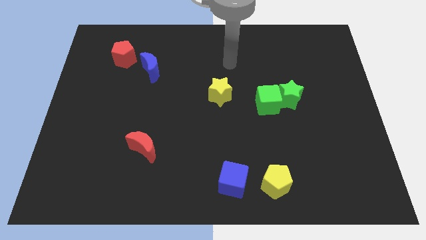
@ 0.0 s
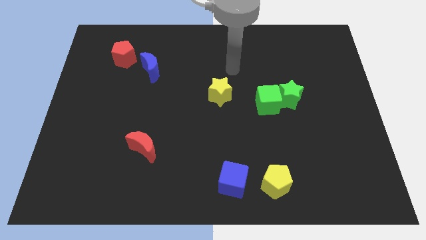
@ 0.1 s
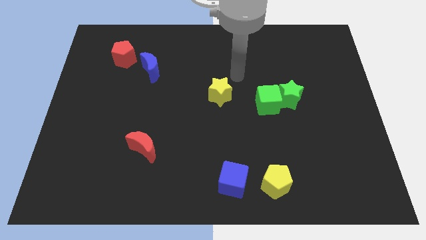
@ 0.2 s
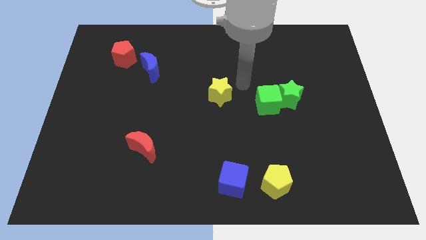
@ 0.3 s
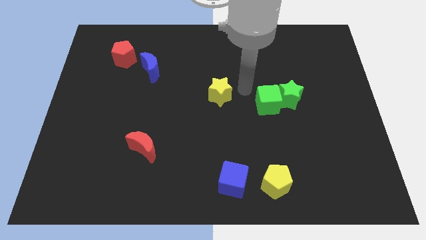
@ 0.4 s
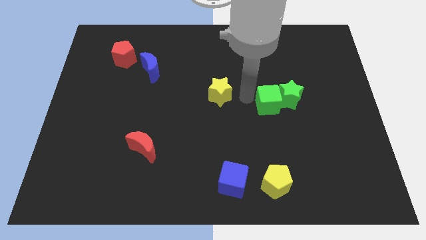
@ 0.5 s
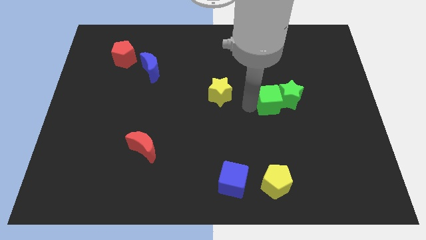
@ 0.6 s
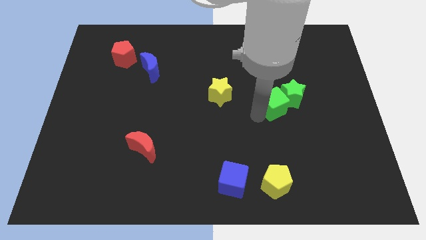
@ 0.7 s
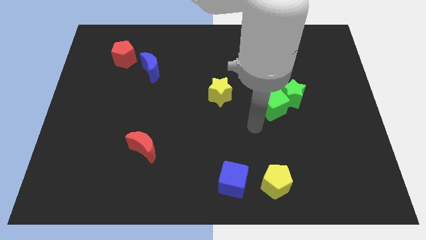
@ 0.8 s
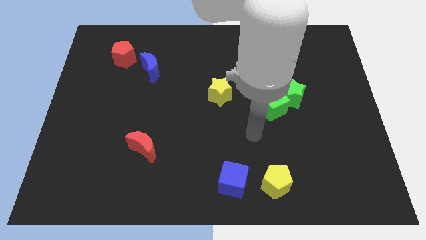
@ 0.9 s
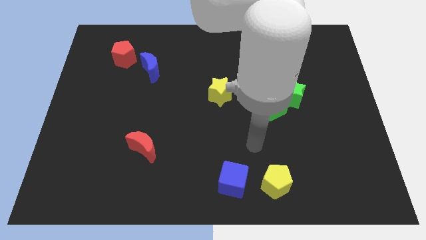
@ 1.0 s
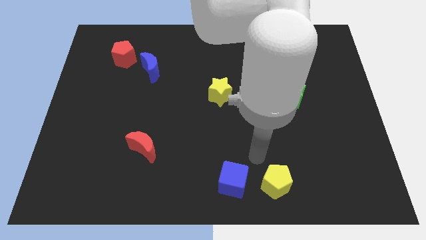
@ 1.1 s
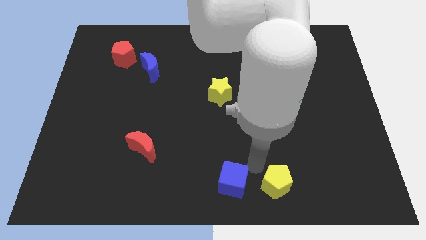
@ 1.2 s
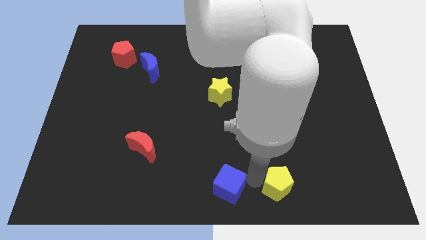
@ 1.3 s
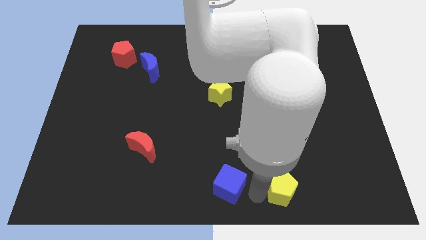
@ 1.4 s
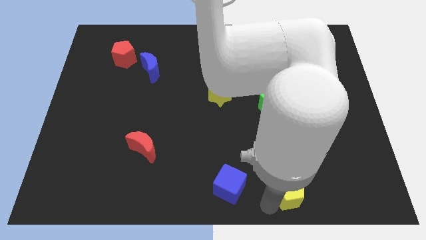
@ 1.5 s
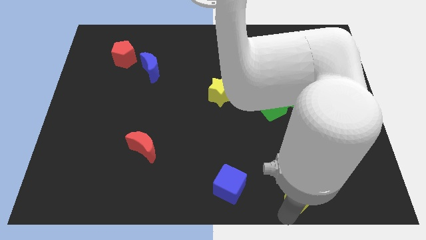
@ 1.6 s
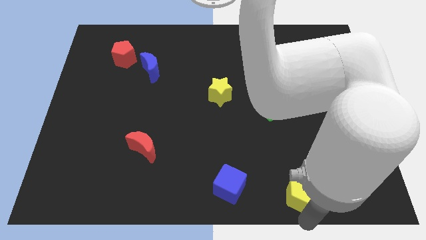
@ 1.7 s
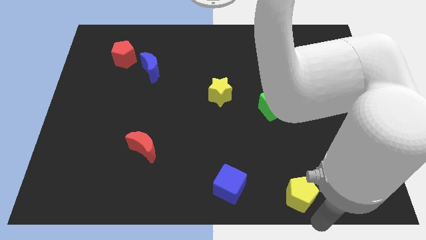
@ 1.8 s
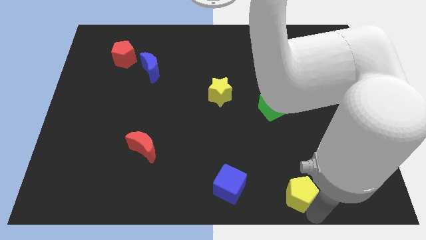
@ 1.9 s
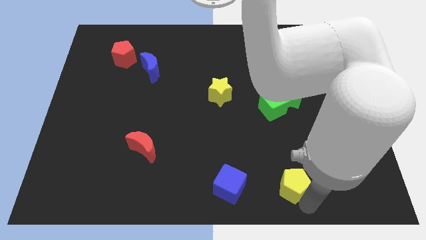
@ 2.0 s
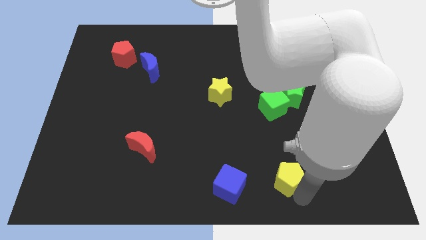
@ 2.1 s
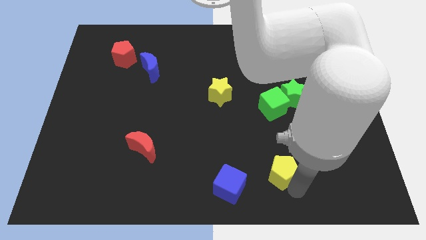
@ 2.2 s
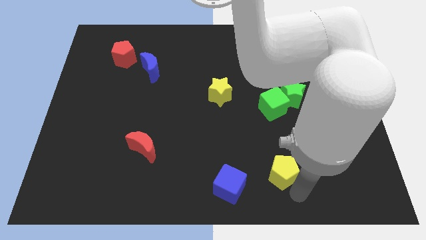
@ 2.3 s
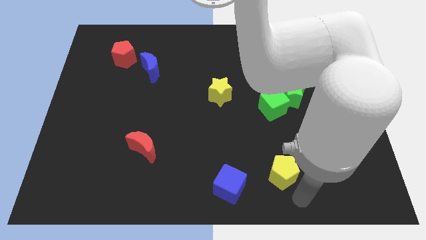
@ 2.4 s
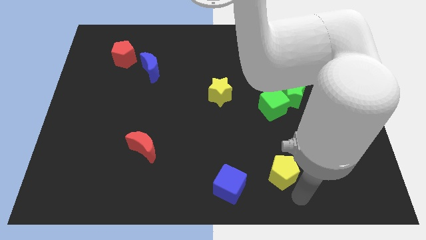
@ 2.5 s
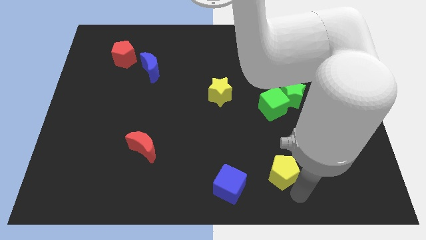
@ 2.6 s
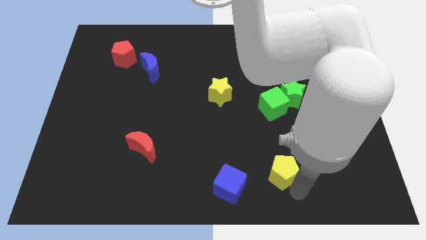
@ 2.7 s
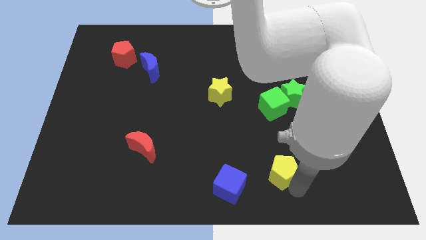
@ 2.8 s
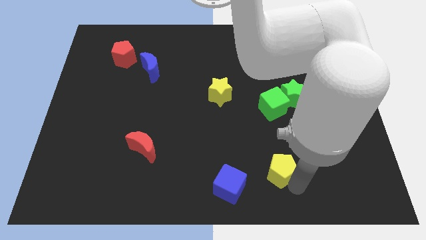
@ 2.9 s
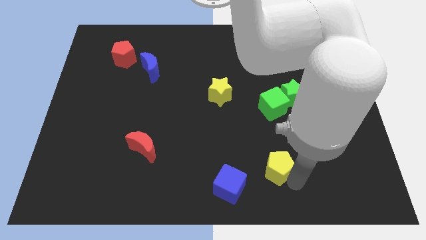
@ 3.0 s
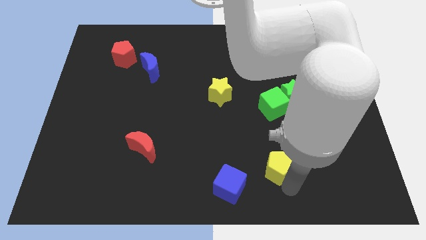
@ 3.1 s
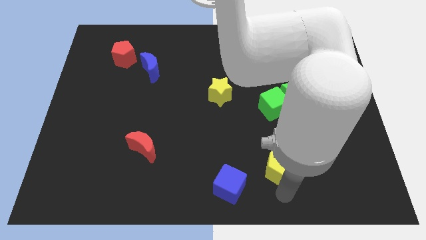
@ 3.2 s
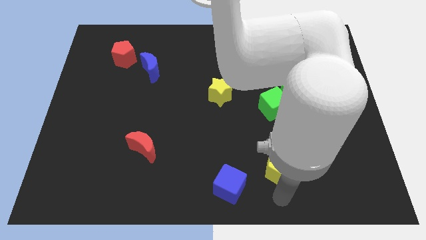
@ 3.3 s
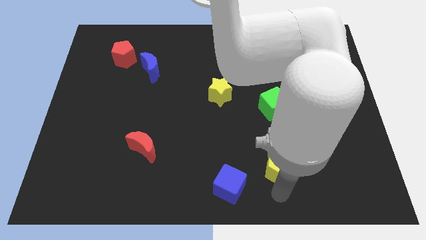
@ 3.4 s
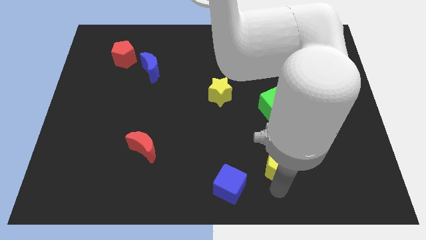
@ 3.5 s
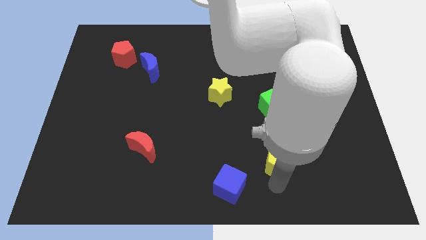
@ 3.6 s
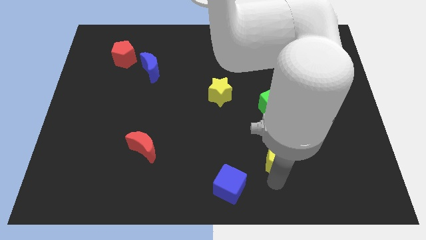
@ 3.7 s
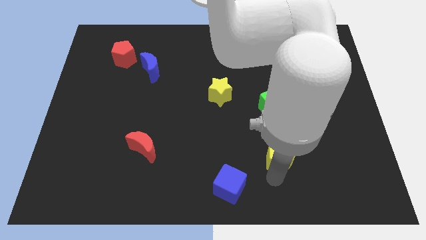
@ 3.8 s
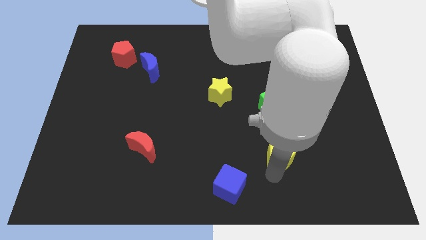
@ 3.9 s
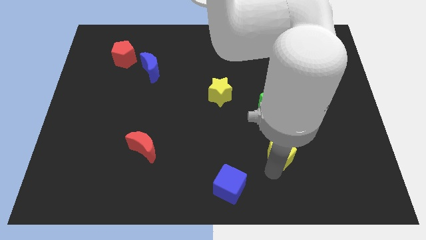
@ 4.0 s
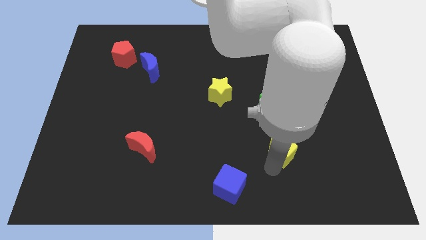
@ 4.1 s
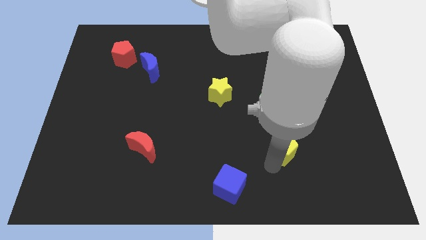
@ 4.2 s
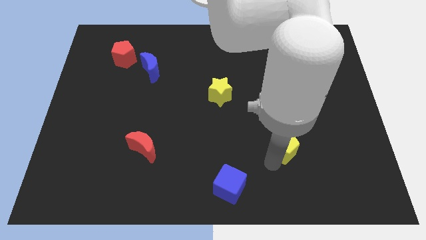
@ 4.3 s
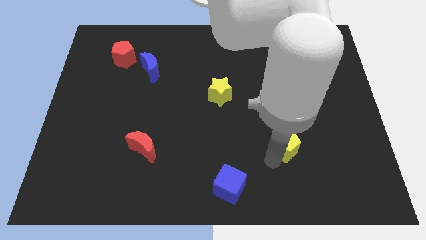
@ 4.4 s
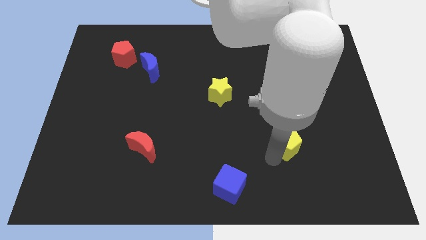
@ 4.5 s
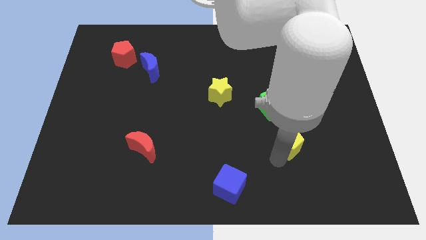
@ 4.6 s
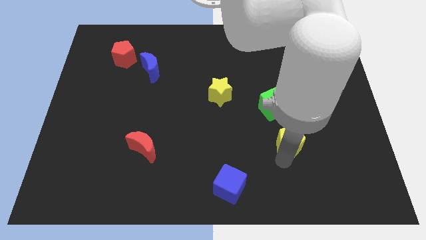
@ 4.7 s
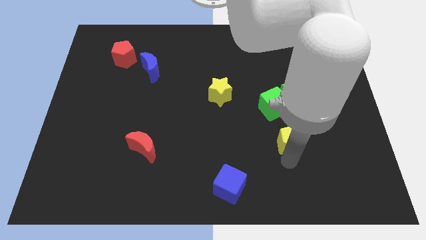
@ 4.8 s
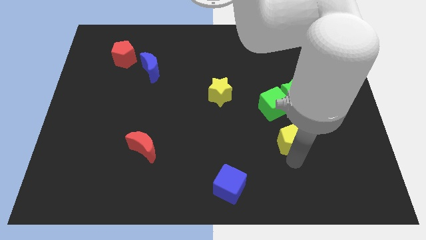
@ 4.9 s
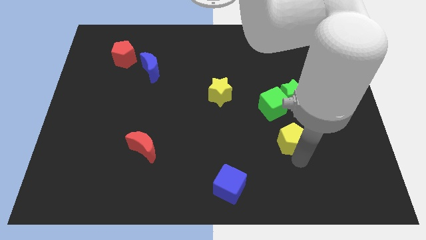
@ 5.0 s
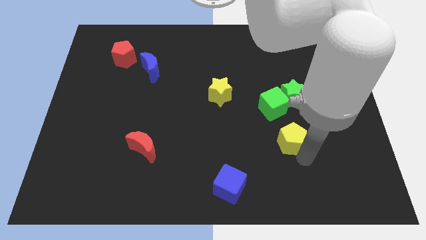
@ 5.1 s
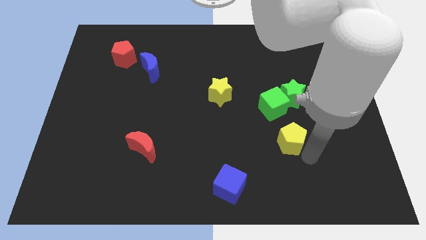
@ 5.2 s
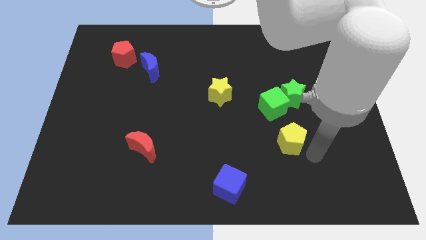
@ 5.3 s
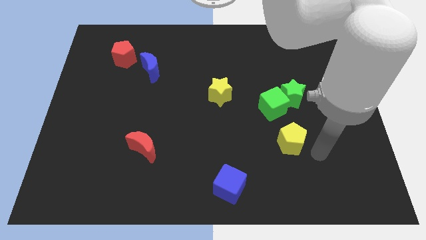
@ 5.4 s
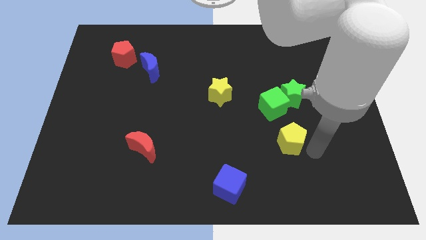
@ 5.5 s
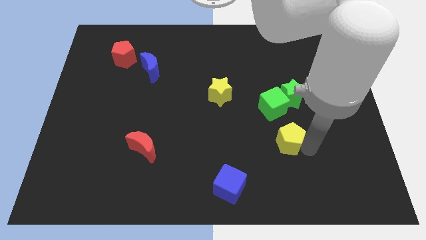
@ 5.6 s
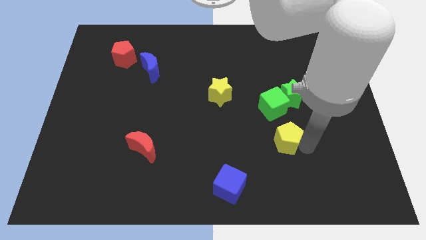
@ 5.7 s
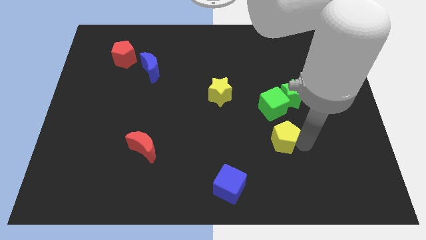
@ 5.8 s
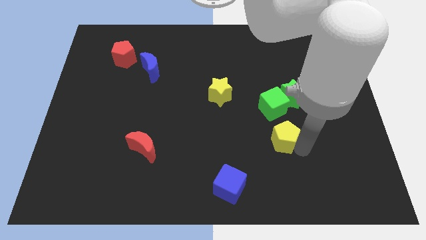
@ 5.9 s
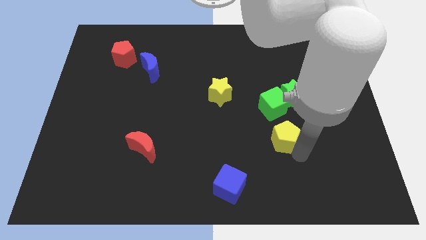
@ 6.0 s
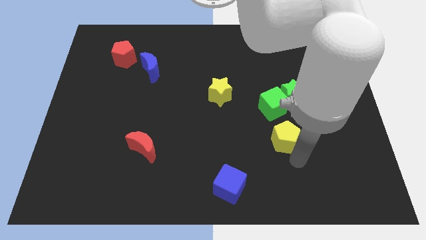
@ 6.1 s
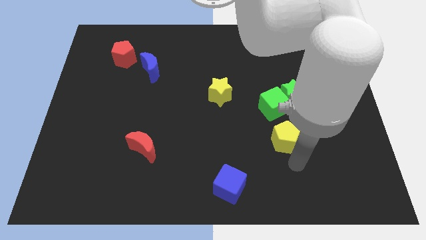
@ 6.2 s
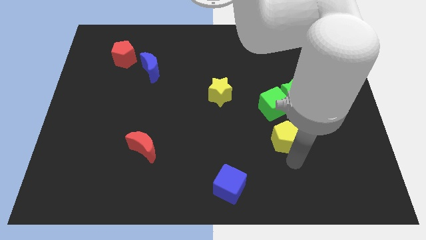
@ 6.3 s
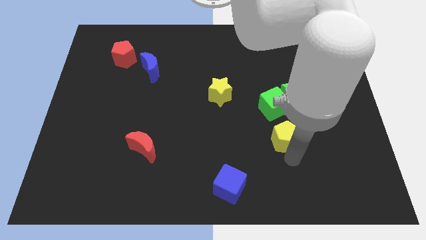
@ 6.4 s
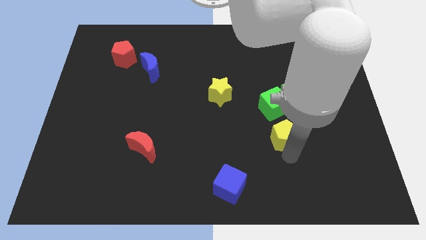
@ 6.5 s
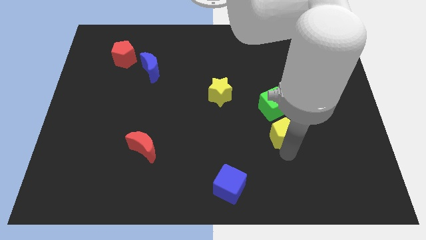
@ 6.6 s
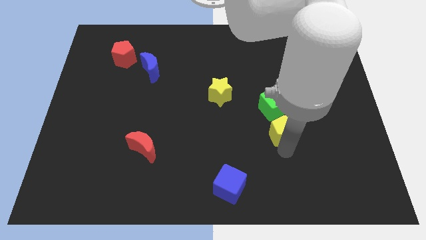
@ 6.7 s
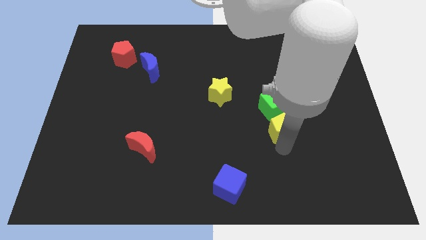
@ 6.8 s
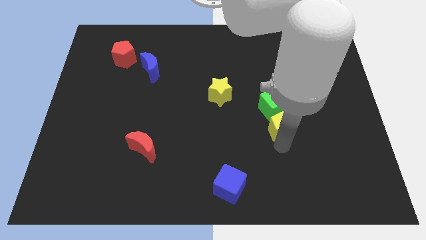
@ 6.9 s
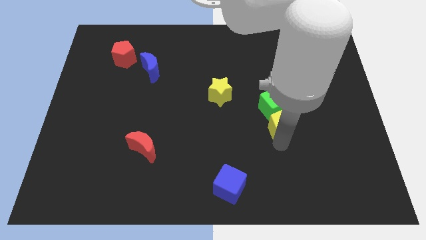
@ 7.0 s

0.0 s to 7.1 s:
move the yellow pentagon next to the green cube
